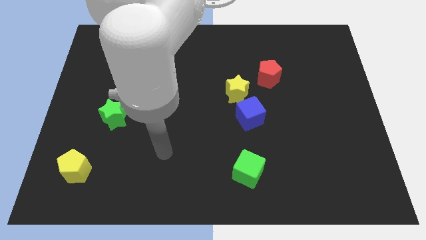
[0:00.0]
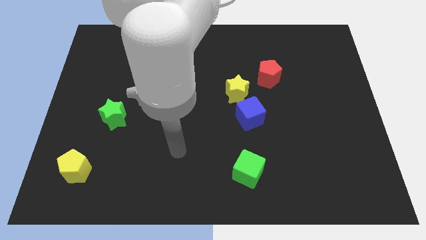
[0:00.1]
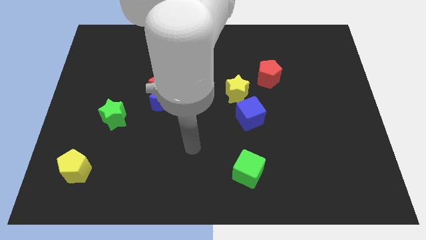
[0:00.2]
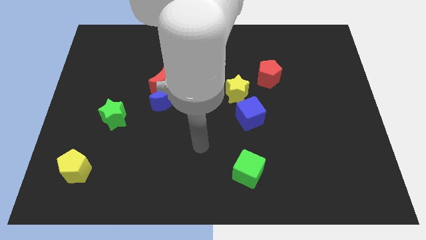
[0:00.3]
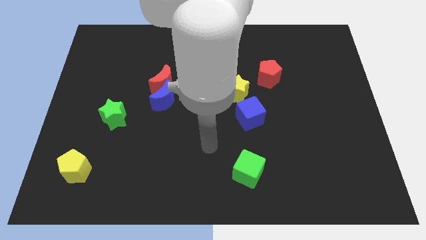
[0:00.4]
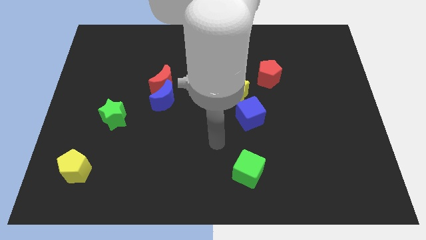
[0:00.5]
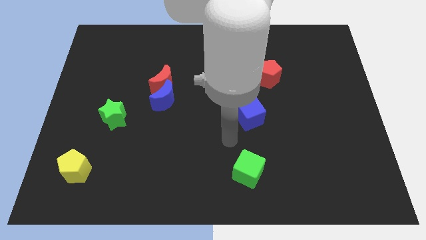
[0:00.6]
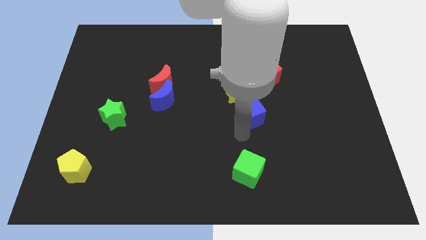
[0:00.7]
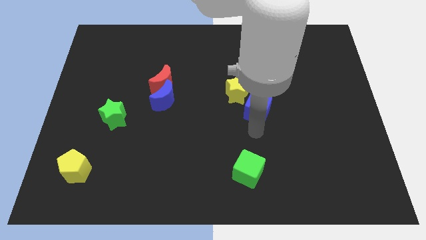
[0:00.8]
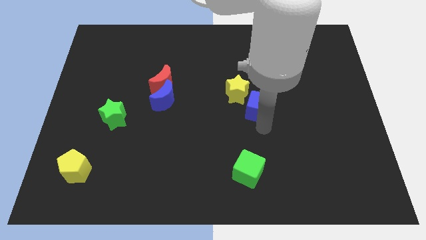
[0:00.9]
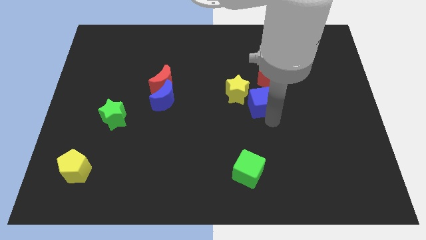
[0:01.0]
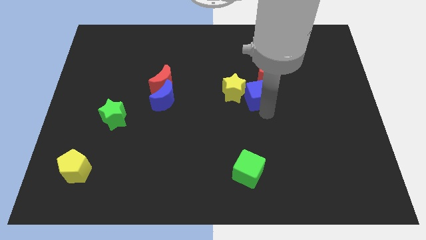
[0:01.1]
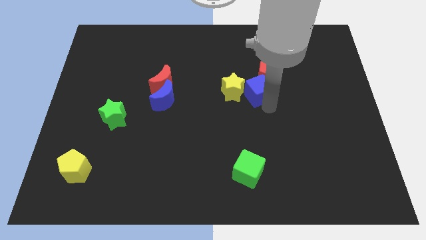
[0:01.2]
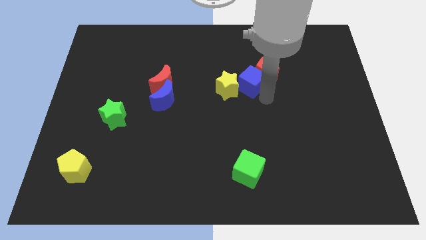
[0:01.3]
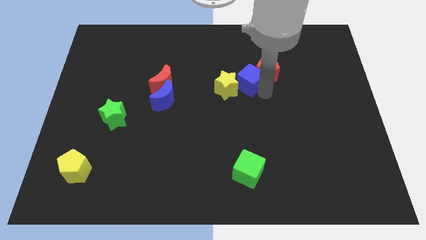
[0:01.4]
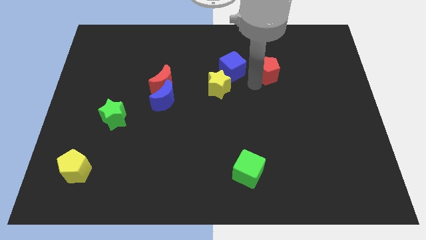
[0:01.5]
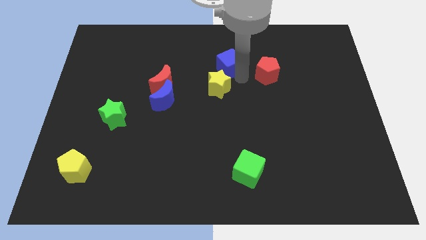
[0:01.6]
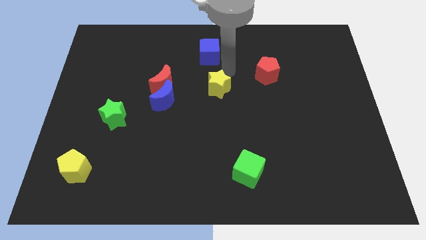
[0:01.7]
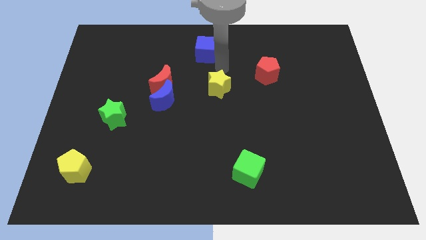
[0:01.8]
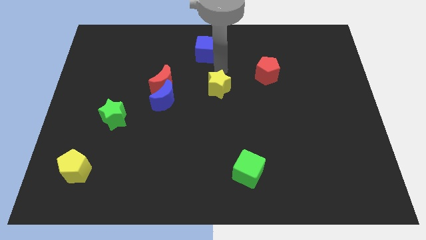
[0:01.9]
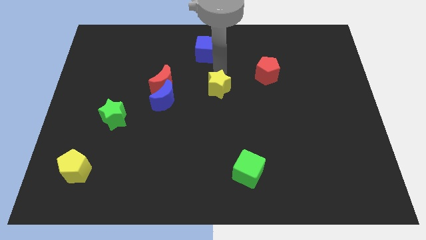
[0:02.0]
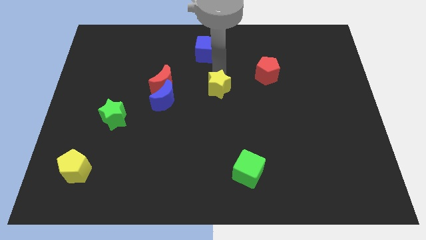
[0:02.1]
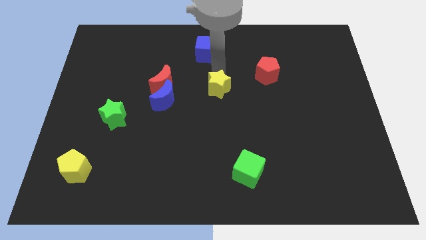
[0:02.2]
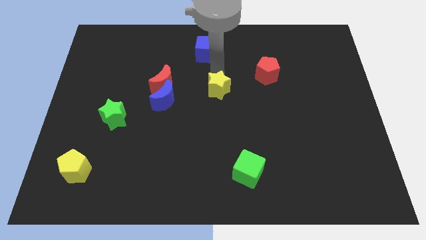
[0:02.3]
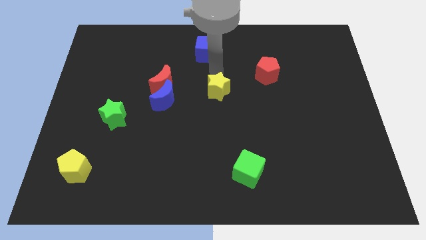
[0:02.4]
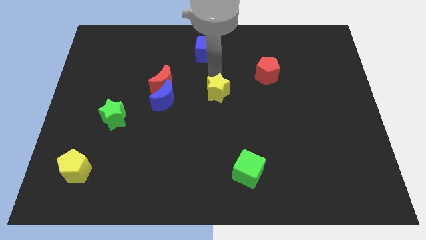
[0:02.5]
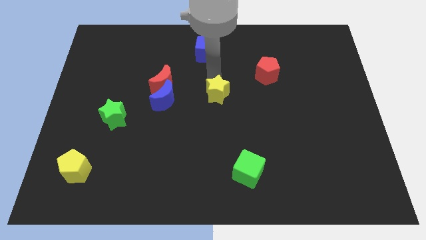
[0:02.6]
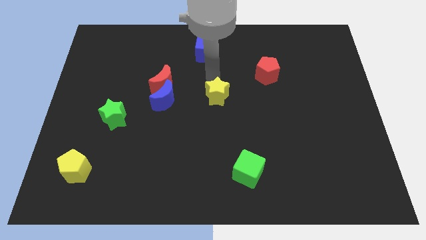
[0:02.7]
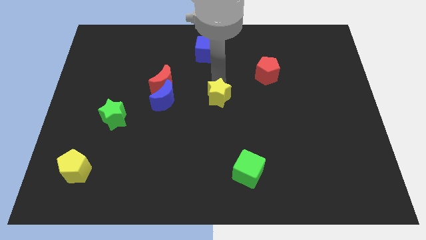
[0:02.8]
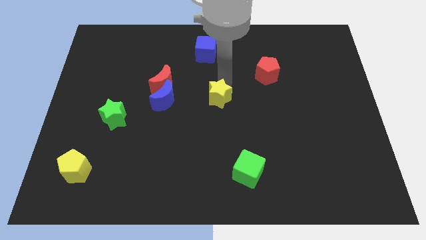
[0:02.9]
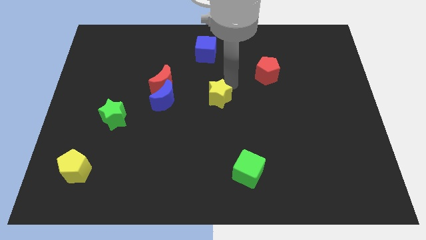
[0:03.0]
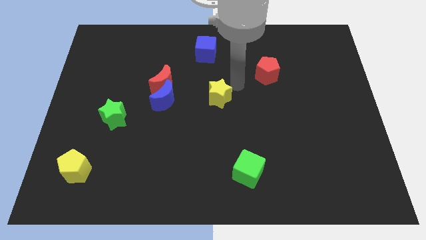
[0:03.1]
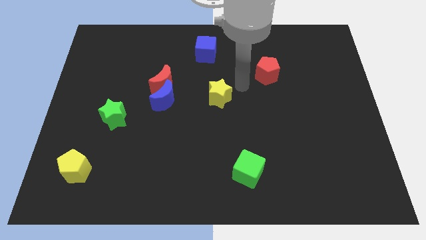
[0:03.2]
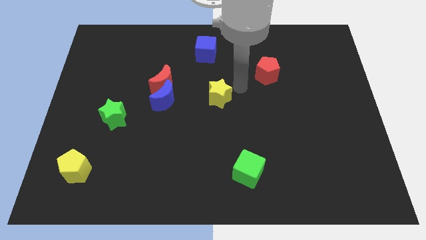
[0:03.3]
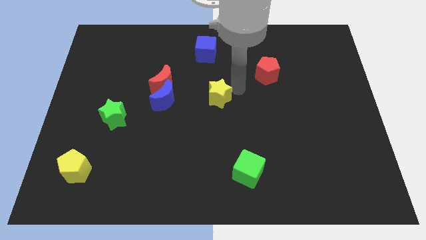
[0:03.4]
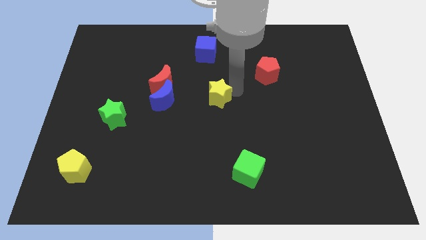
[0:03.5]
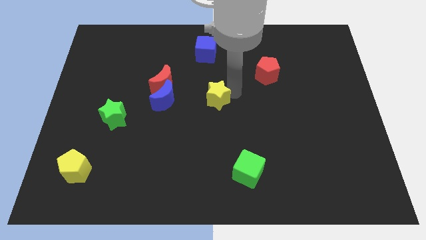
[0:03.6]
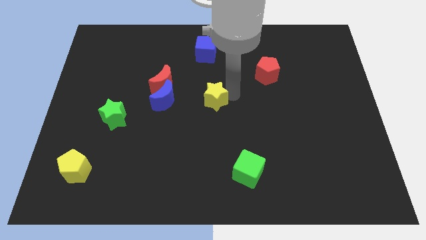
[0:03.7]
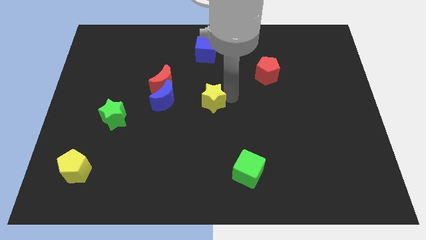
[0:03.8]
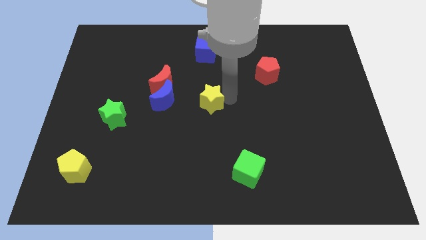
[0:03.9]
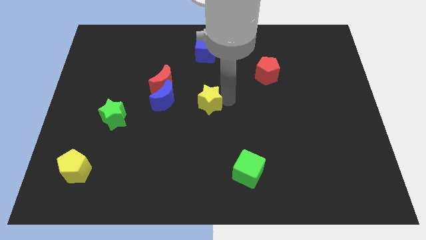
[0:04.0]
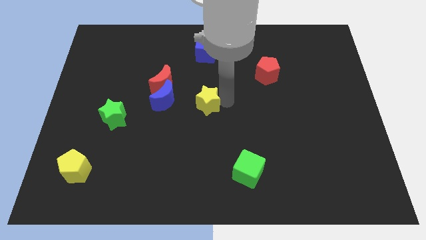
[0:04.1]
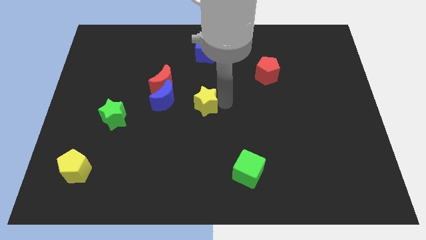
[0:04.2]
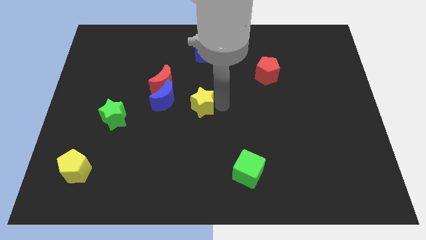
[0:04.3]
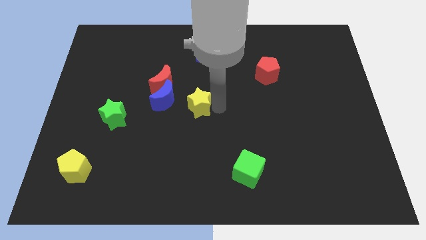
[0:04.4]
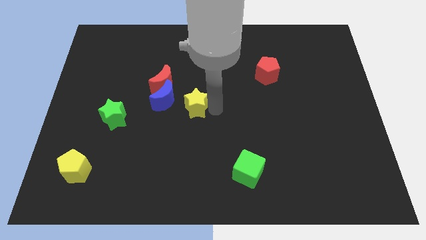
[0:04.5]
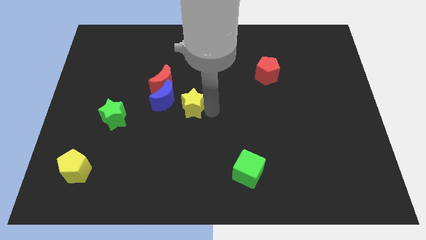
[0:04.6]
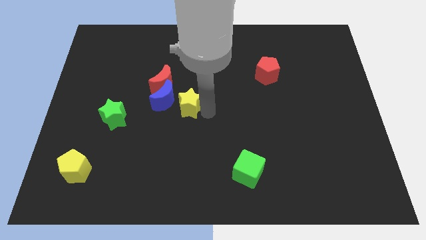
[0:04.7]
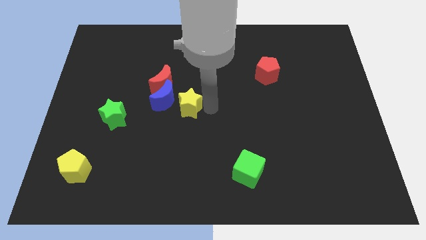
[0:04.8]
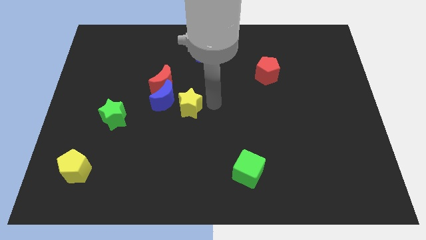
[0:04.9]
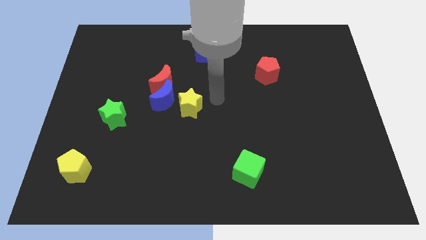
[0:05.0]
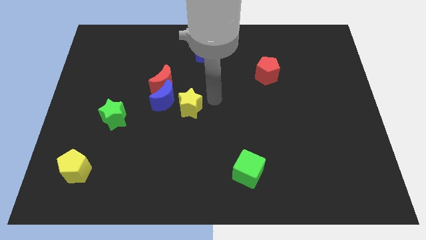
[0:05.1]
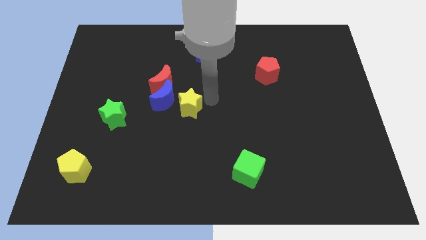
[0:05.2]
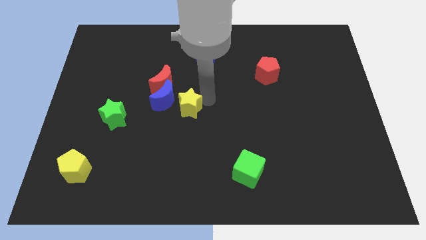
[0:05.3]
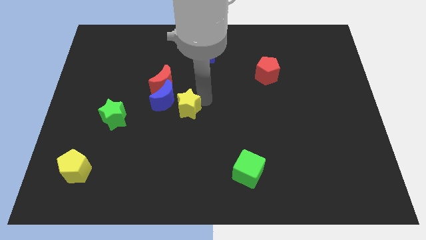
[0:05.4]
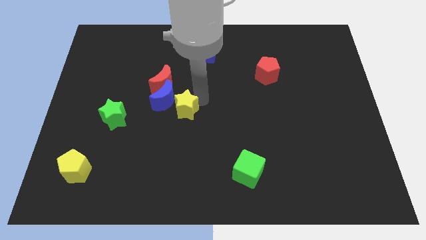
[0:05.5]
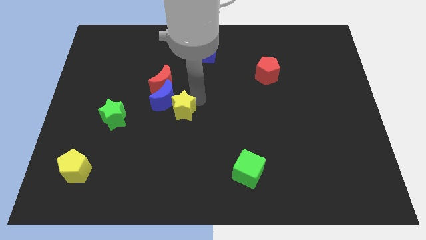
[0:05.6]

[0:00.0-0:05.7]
put the yellow star to the right of the green star

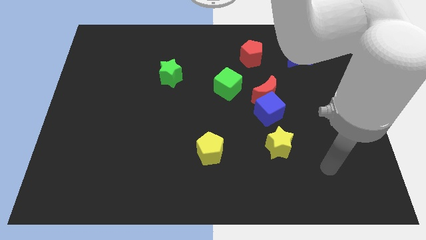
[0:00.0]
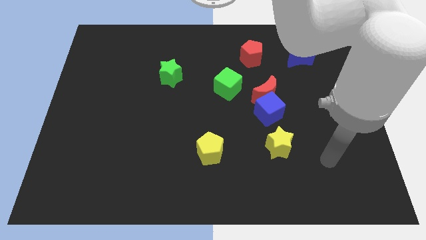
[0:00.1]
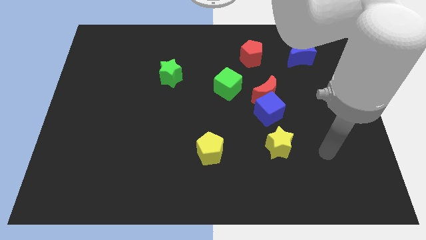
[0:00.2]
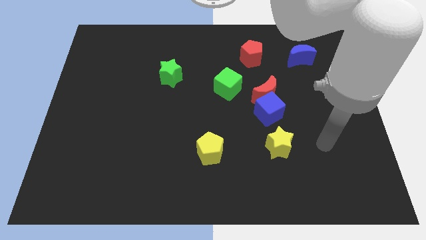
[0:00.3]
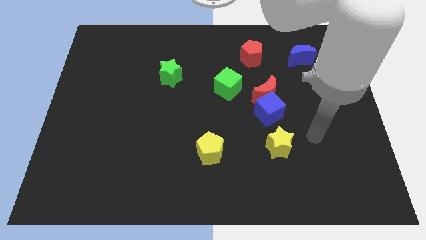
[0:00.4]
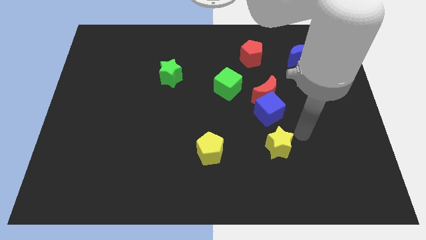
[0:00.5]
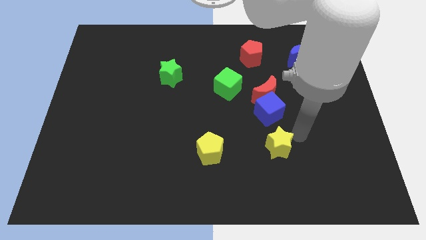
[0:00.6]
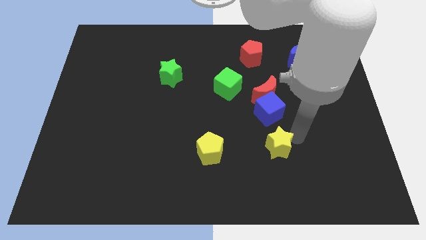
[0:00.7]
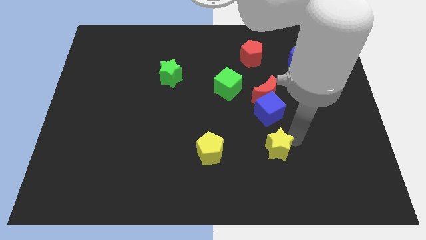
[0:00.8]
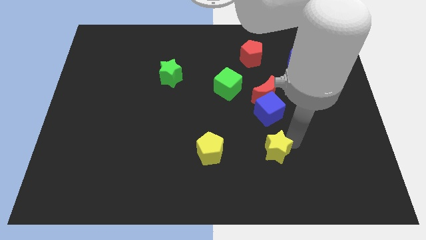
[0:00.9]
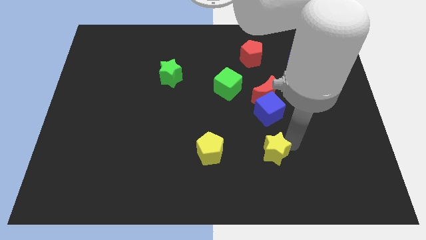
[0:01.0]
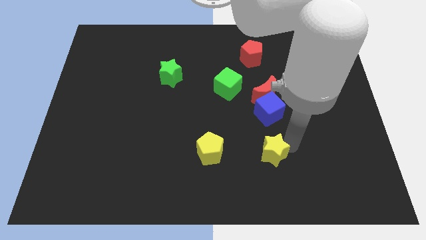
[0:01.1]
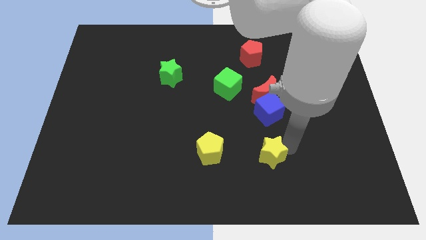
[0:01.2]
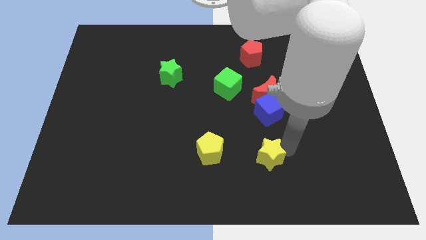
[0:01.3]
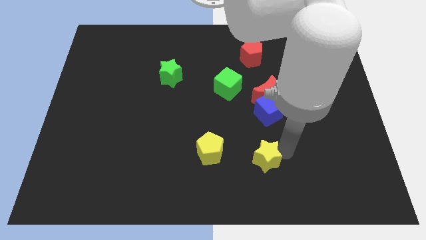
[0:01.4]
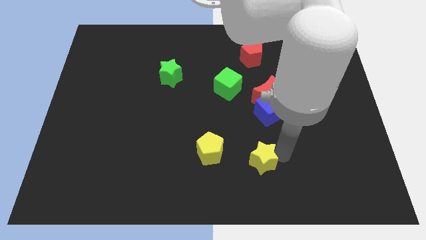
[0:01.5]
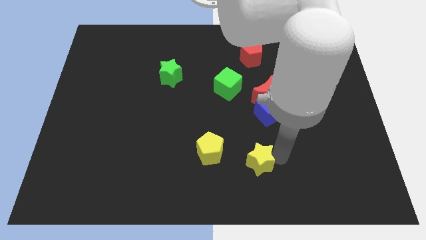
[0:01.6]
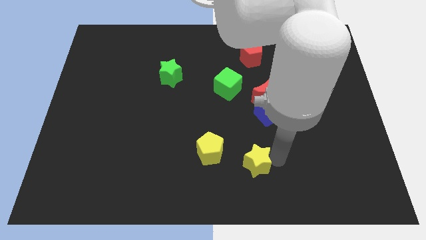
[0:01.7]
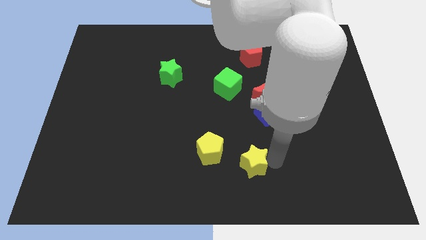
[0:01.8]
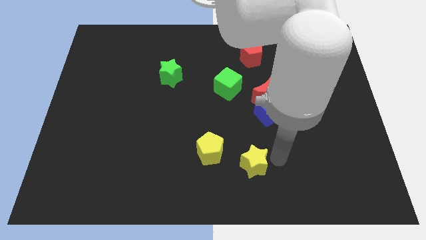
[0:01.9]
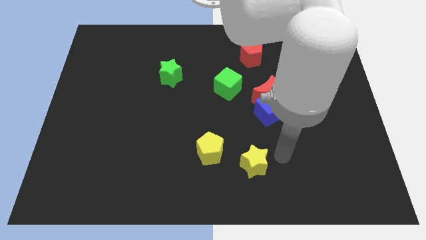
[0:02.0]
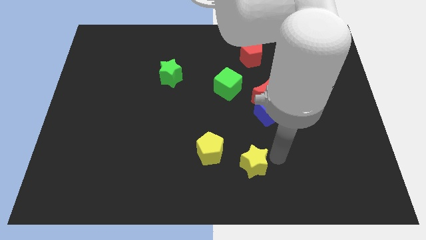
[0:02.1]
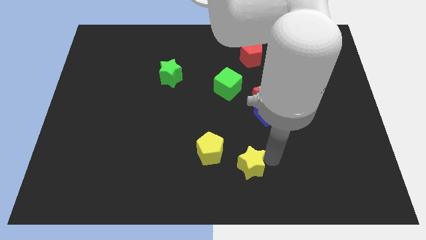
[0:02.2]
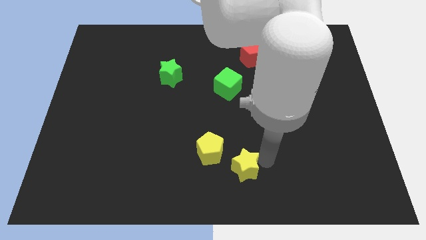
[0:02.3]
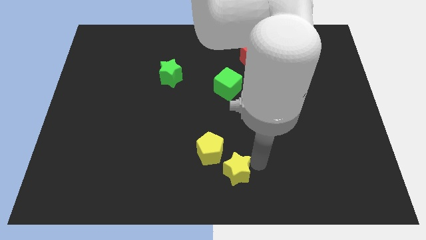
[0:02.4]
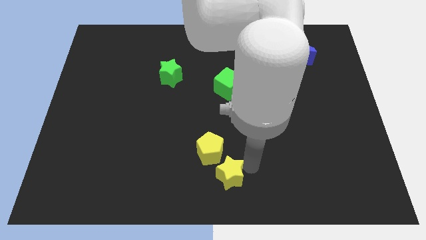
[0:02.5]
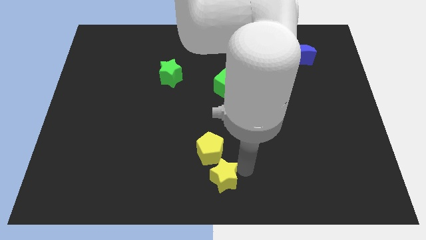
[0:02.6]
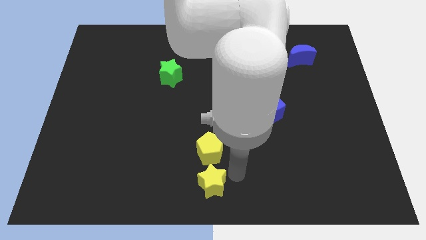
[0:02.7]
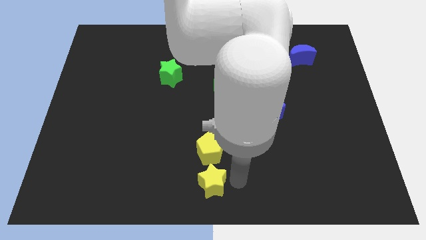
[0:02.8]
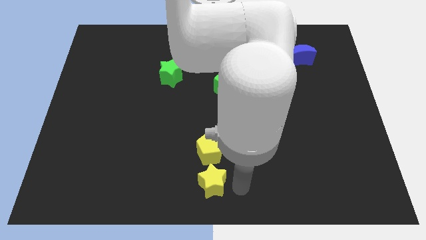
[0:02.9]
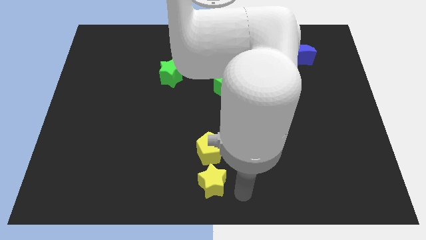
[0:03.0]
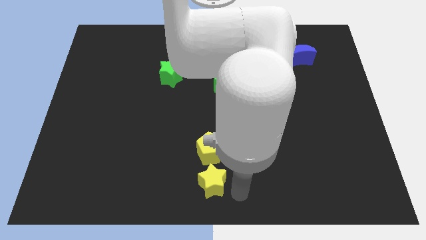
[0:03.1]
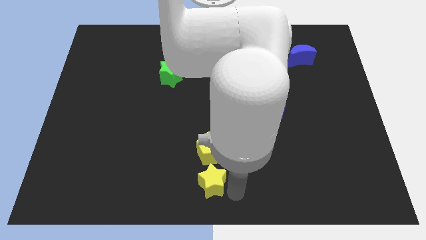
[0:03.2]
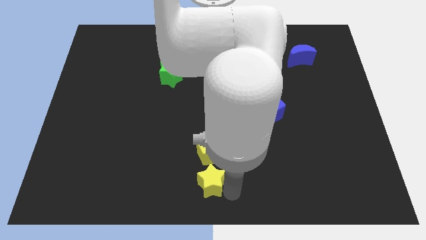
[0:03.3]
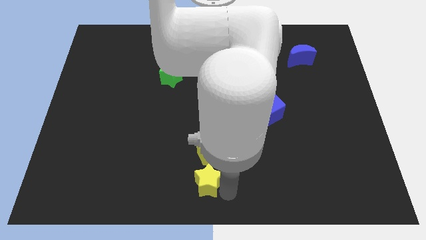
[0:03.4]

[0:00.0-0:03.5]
slide the yellow star to the bottom left side of the yellow pentagon
